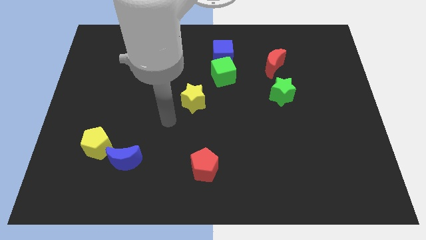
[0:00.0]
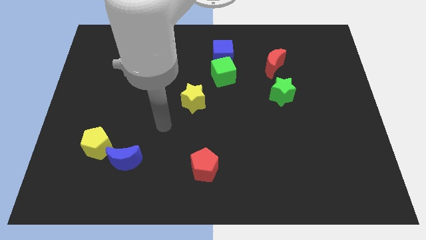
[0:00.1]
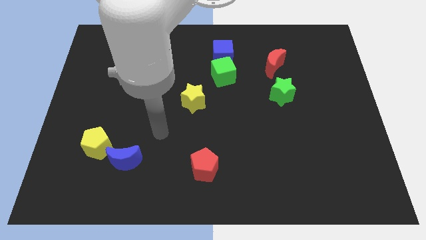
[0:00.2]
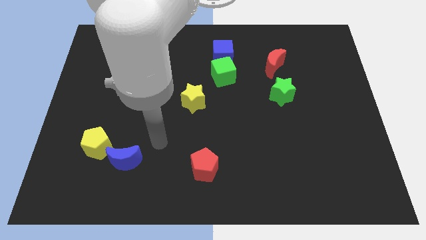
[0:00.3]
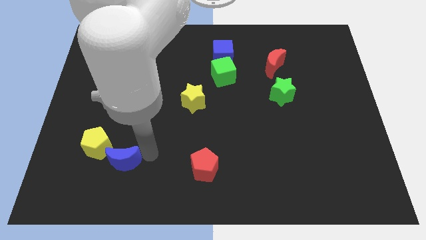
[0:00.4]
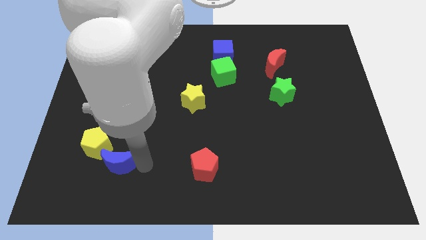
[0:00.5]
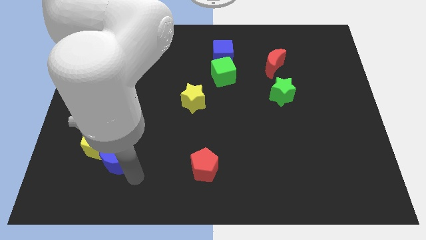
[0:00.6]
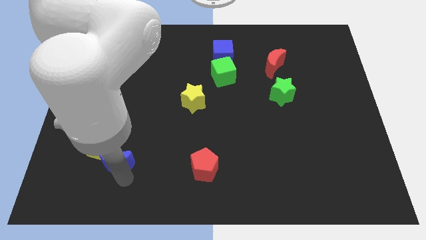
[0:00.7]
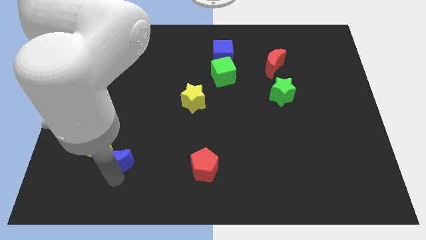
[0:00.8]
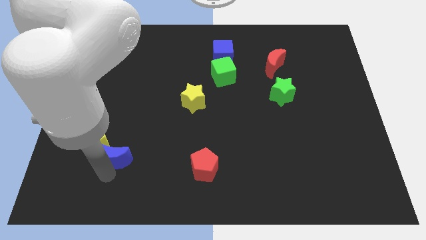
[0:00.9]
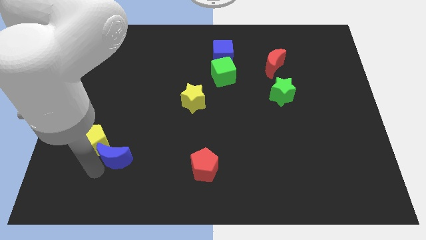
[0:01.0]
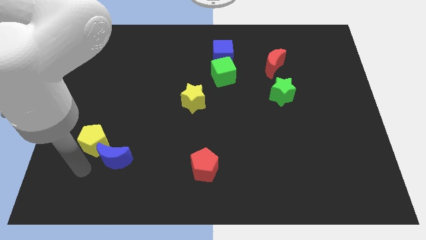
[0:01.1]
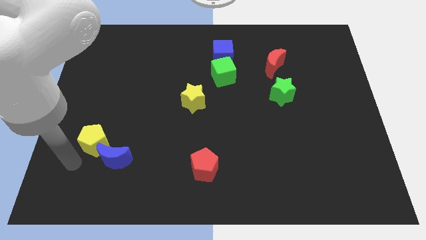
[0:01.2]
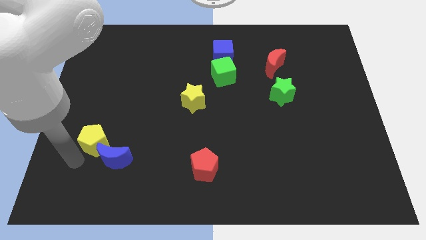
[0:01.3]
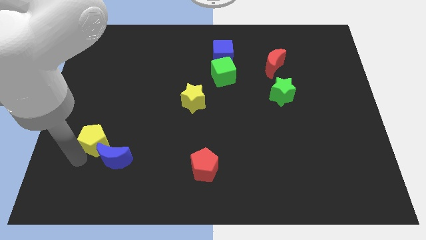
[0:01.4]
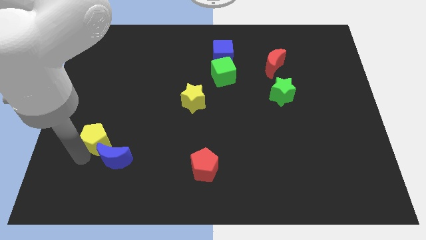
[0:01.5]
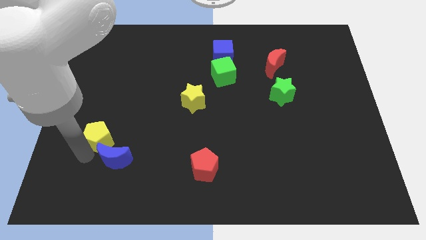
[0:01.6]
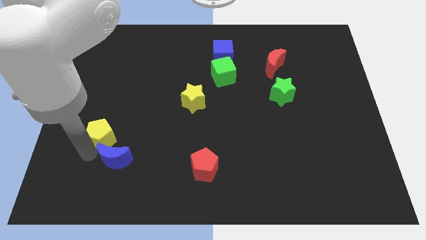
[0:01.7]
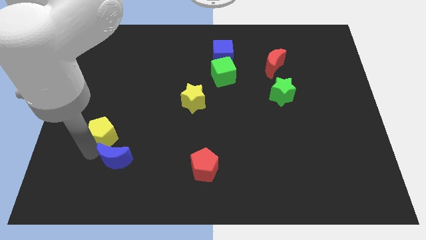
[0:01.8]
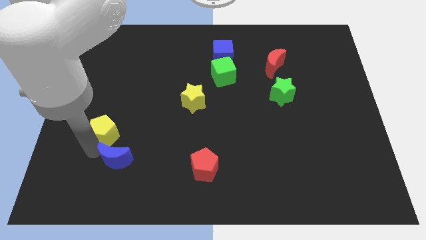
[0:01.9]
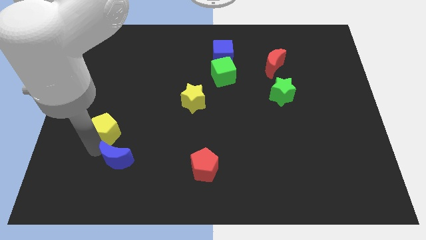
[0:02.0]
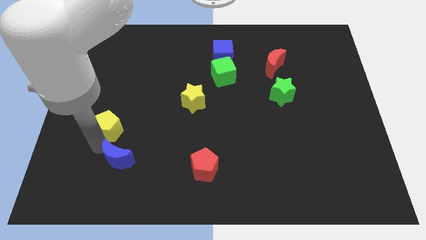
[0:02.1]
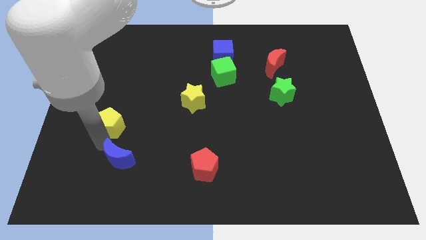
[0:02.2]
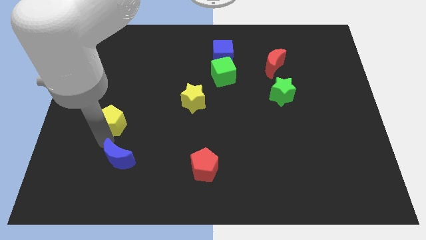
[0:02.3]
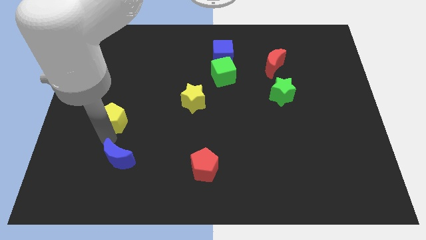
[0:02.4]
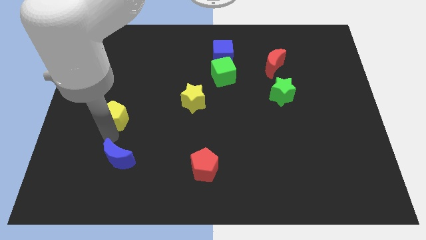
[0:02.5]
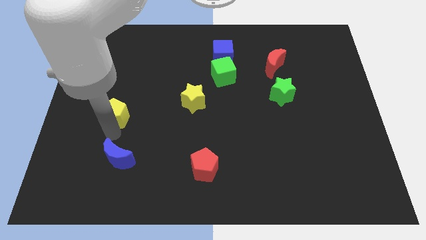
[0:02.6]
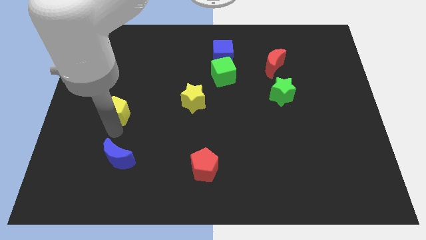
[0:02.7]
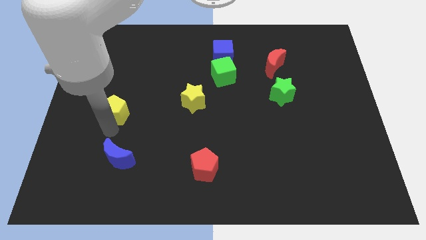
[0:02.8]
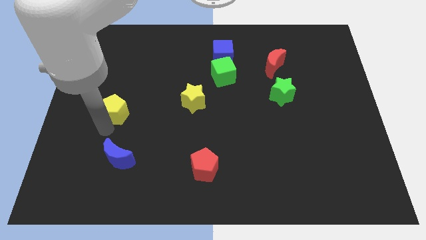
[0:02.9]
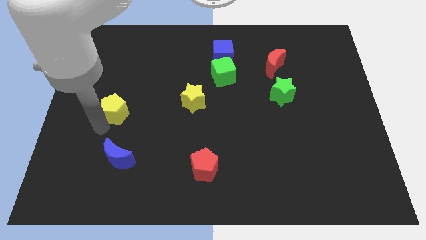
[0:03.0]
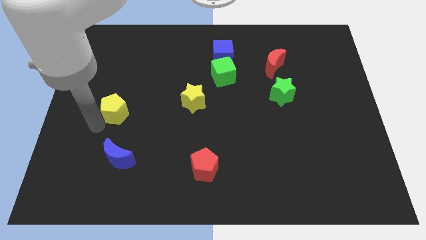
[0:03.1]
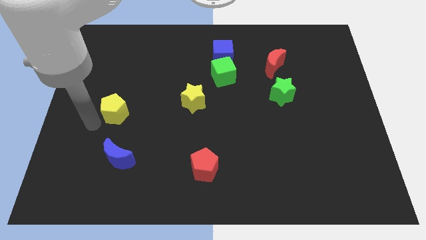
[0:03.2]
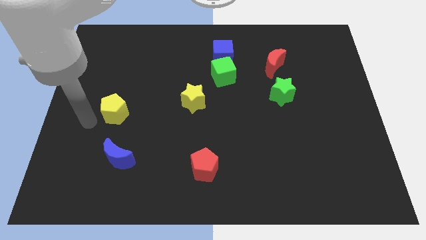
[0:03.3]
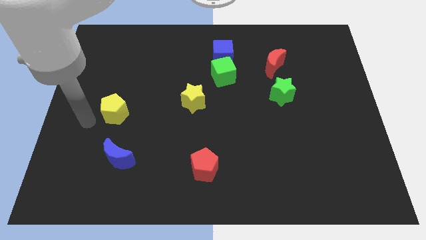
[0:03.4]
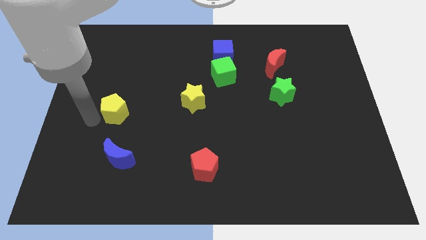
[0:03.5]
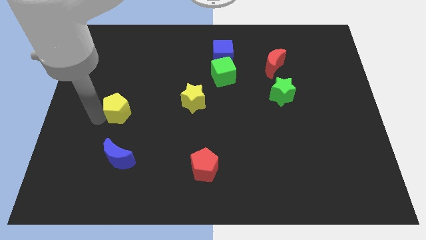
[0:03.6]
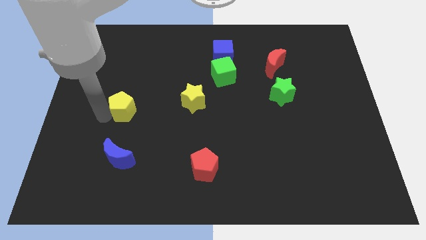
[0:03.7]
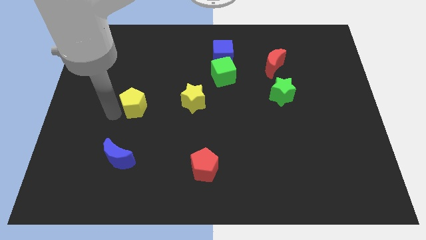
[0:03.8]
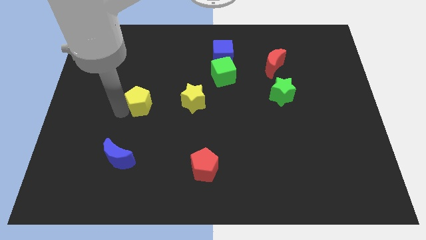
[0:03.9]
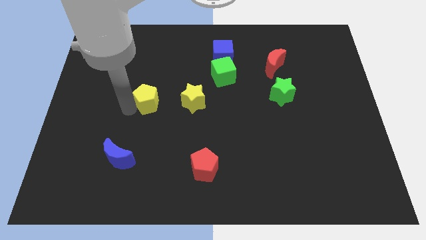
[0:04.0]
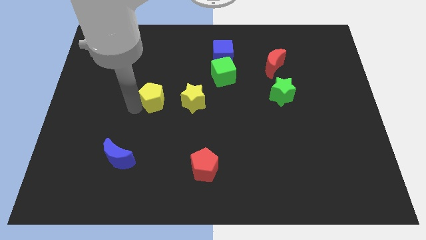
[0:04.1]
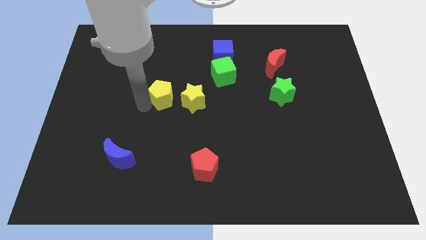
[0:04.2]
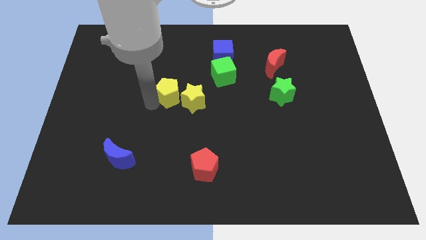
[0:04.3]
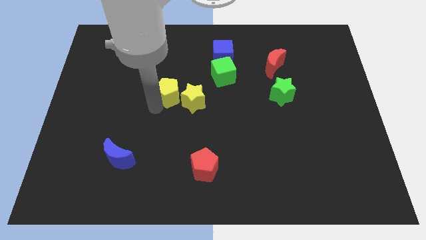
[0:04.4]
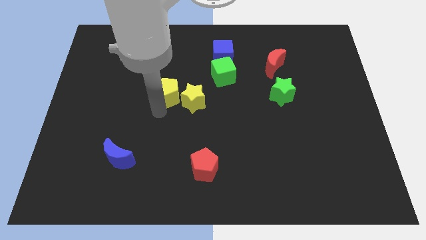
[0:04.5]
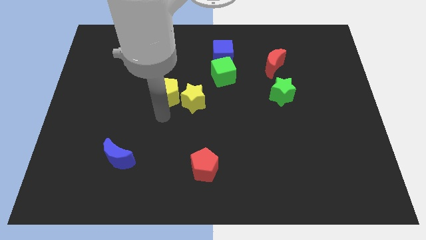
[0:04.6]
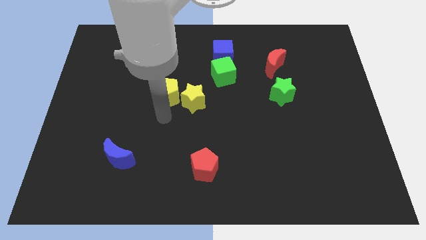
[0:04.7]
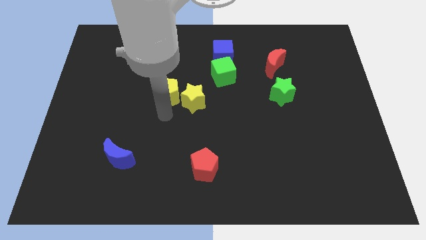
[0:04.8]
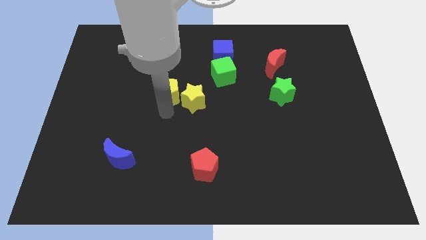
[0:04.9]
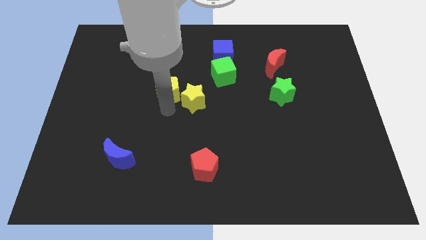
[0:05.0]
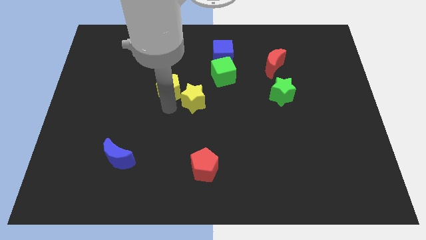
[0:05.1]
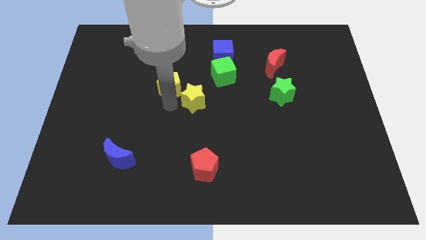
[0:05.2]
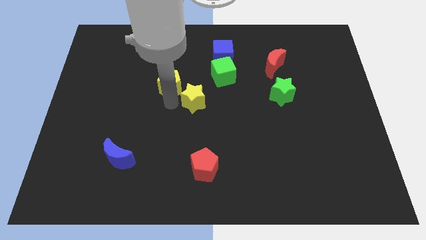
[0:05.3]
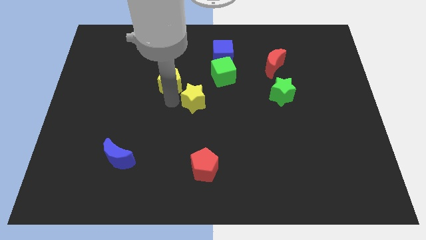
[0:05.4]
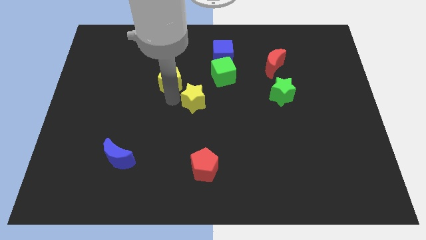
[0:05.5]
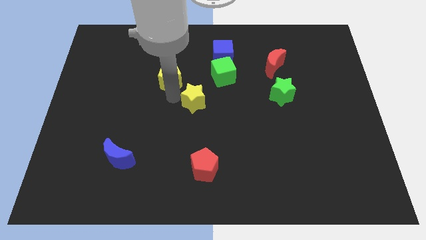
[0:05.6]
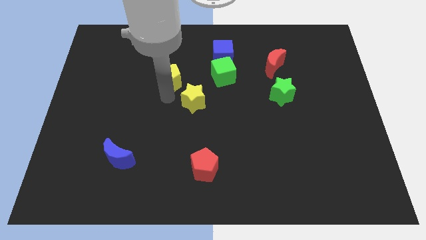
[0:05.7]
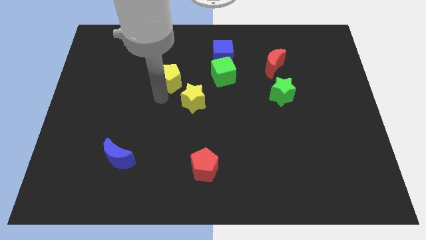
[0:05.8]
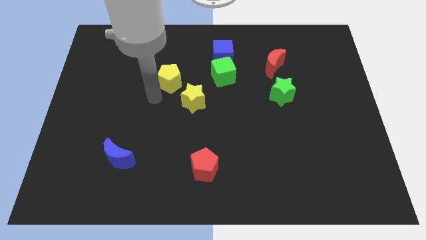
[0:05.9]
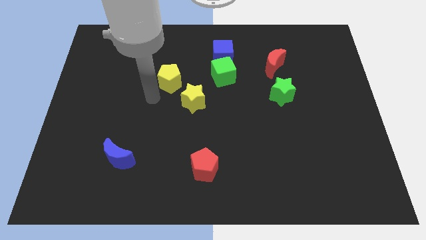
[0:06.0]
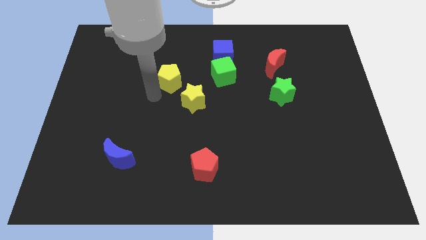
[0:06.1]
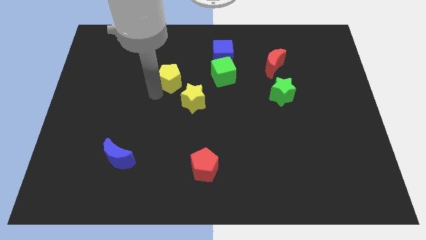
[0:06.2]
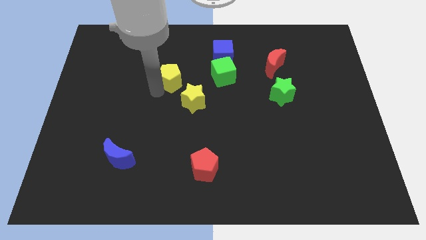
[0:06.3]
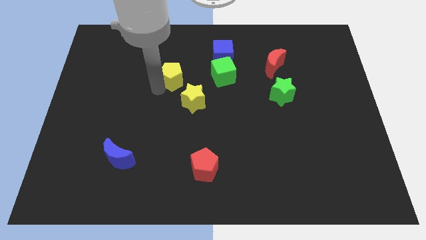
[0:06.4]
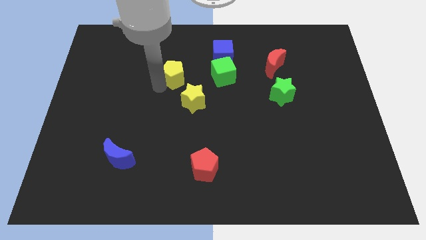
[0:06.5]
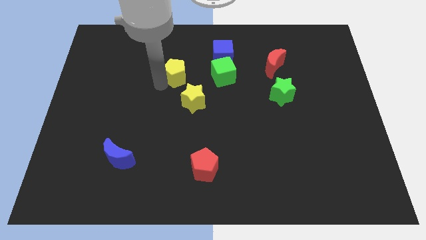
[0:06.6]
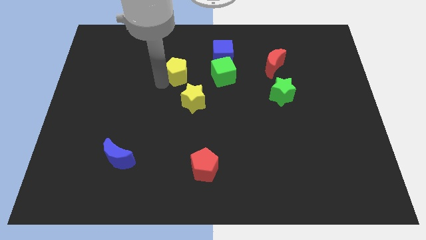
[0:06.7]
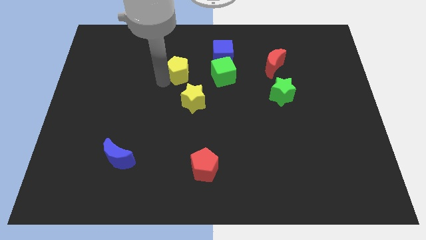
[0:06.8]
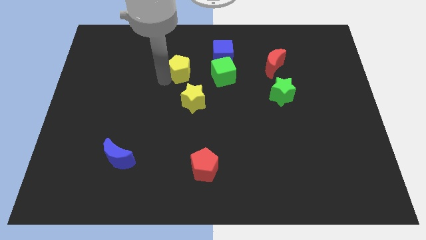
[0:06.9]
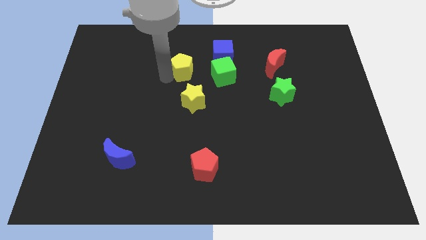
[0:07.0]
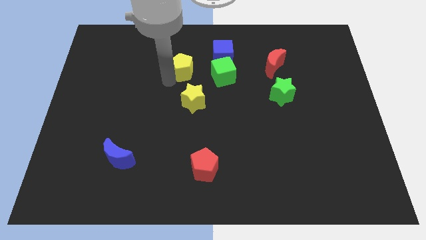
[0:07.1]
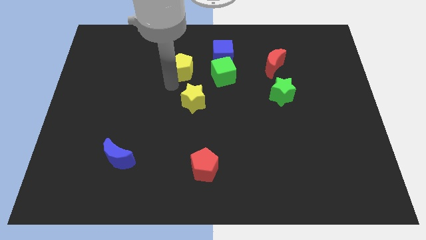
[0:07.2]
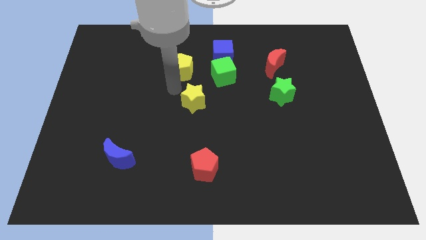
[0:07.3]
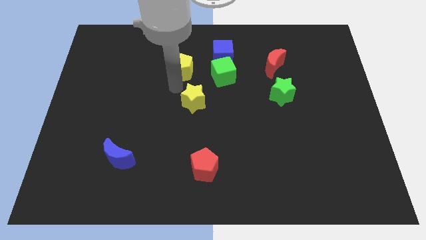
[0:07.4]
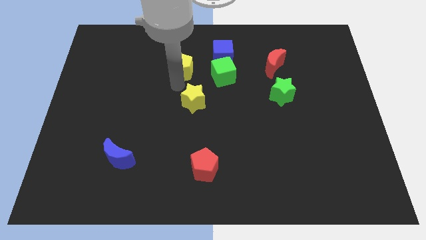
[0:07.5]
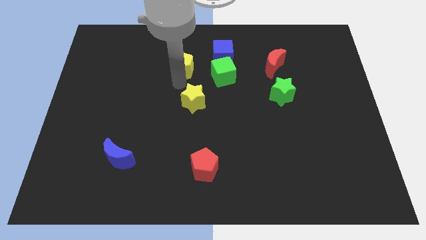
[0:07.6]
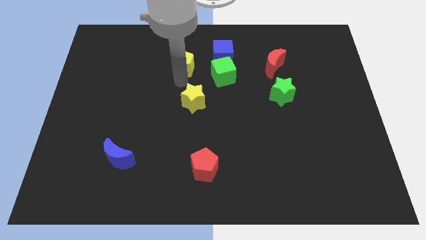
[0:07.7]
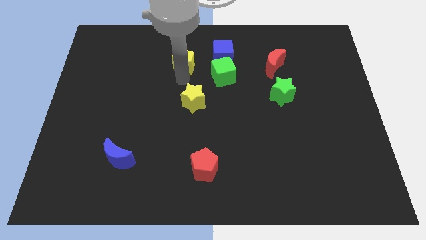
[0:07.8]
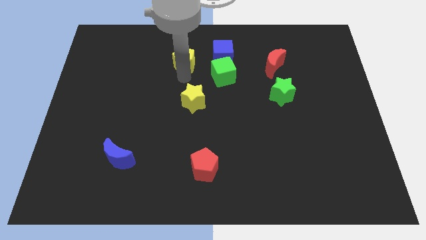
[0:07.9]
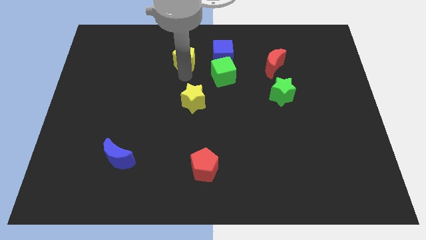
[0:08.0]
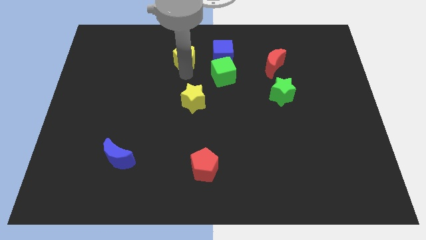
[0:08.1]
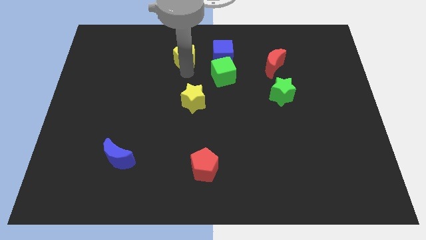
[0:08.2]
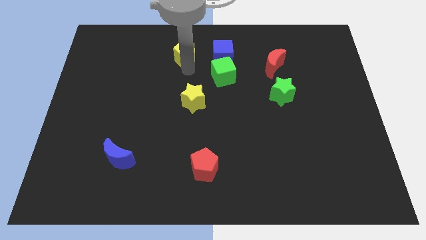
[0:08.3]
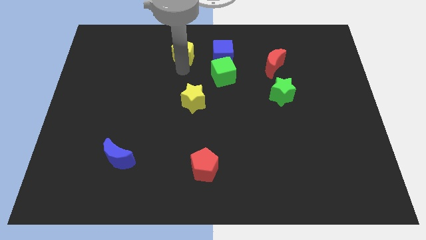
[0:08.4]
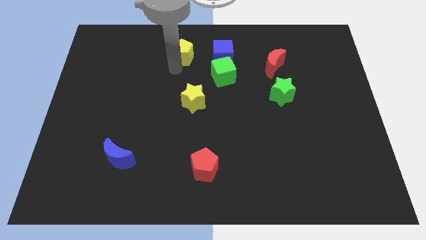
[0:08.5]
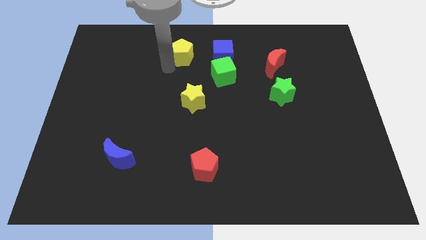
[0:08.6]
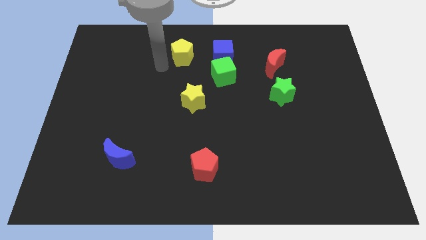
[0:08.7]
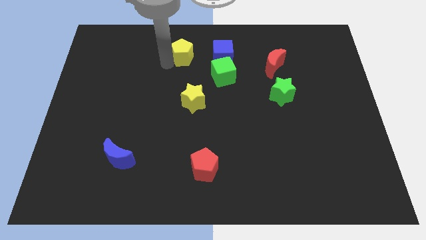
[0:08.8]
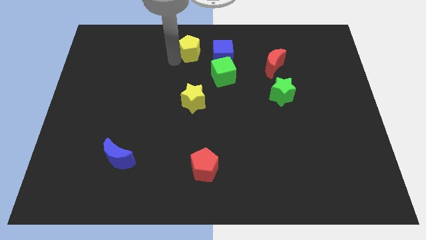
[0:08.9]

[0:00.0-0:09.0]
put the yellow pentagon to the towards your base
